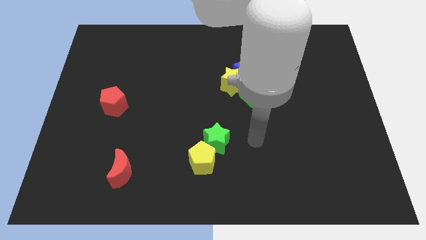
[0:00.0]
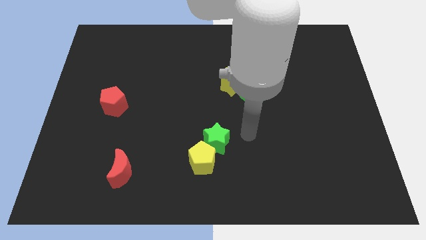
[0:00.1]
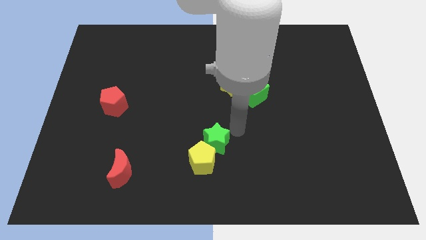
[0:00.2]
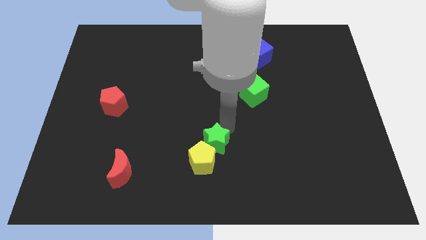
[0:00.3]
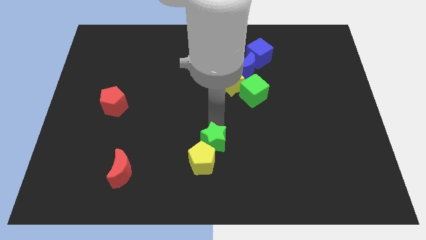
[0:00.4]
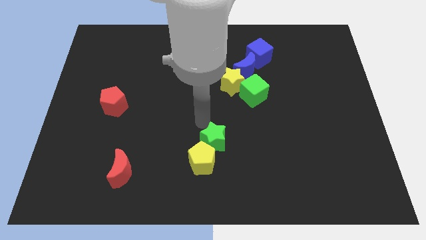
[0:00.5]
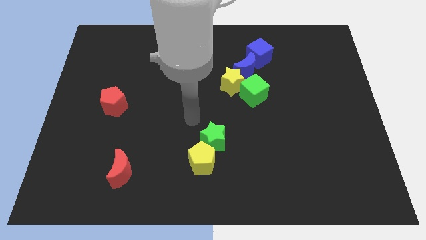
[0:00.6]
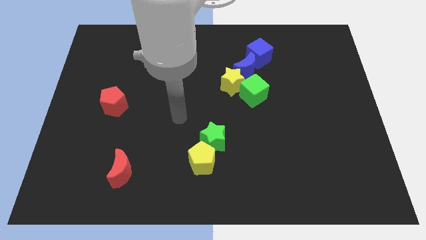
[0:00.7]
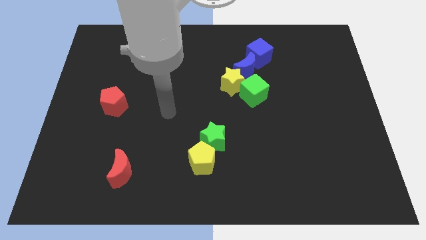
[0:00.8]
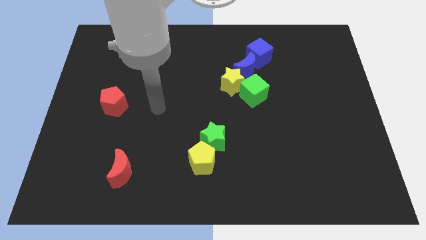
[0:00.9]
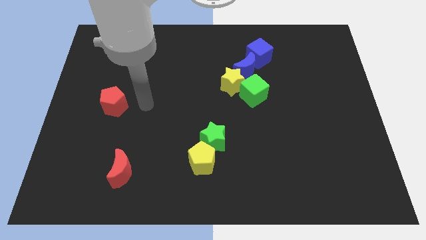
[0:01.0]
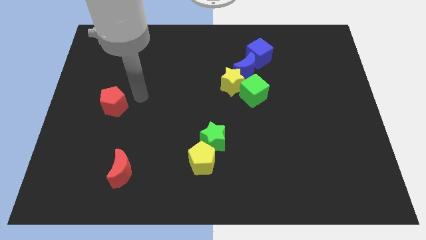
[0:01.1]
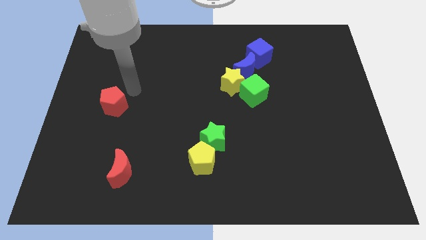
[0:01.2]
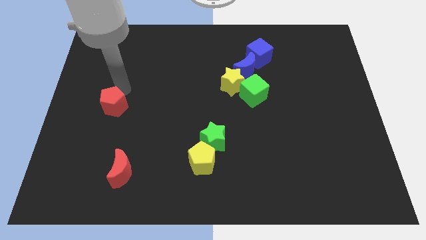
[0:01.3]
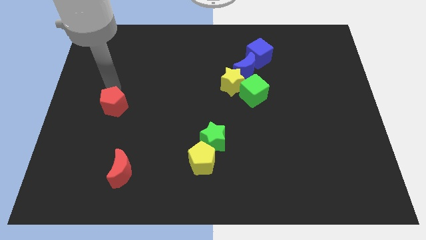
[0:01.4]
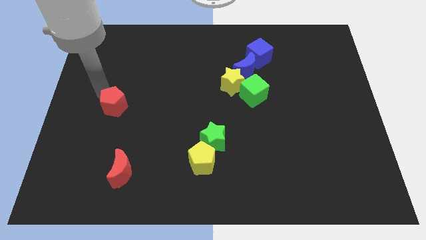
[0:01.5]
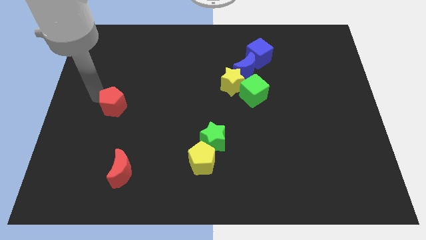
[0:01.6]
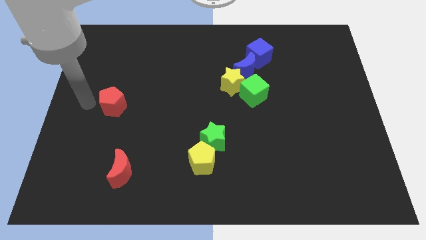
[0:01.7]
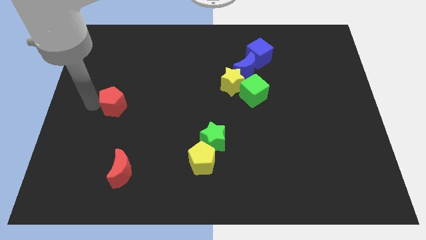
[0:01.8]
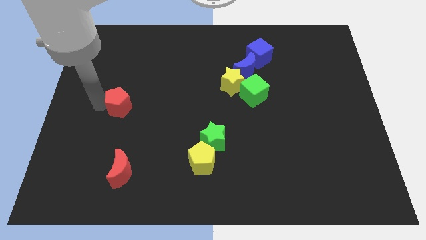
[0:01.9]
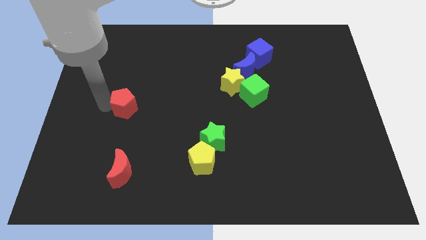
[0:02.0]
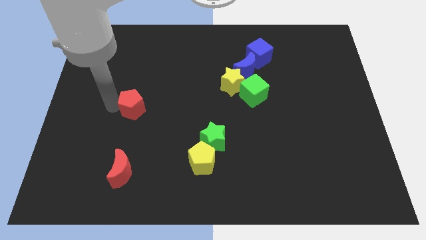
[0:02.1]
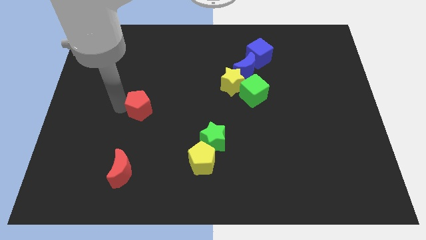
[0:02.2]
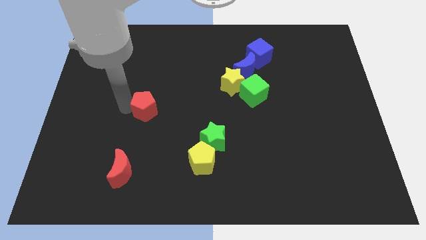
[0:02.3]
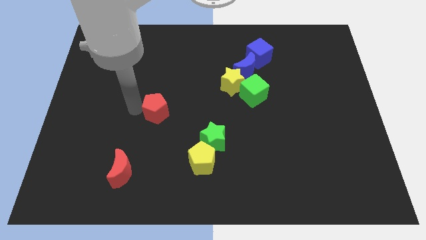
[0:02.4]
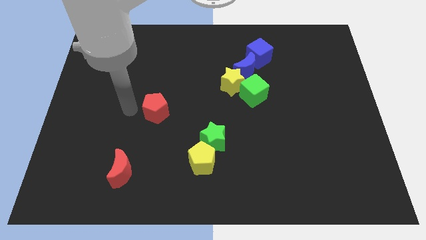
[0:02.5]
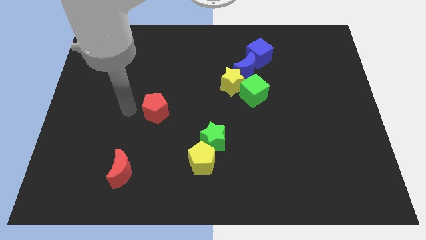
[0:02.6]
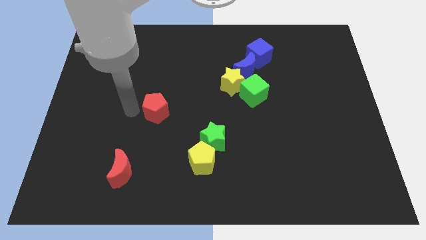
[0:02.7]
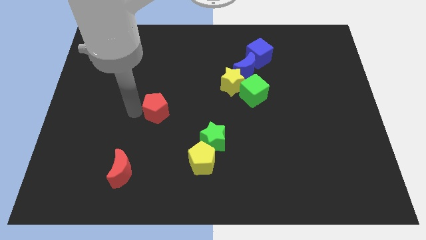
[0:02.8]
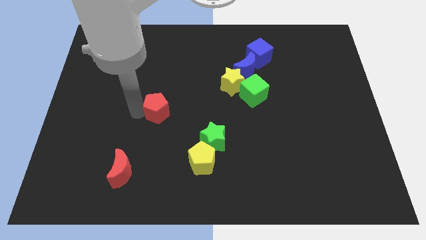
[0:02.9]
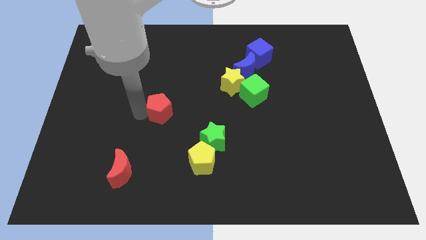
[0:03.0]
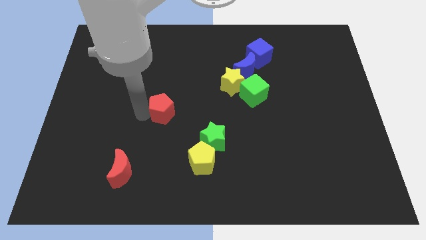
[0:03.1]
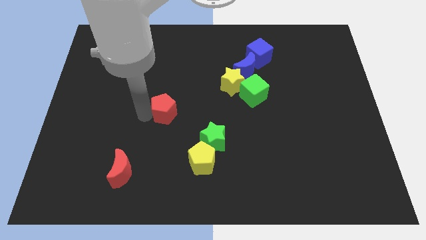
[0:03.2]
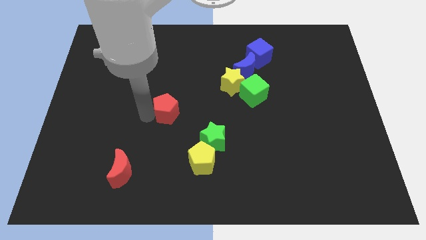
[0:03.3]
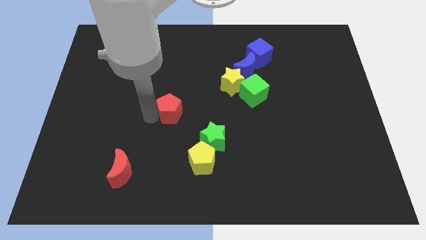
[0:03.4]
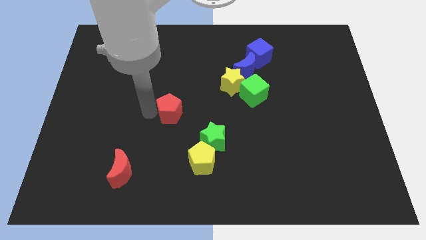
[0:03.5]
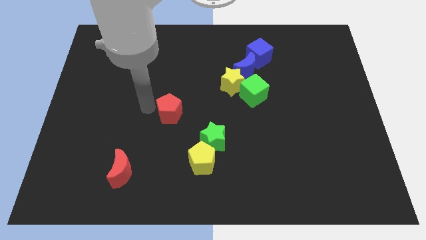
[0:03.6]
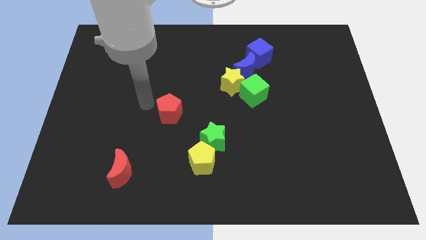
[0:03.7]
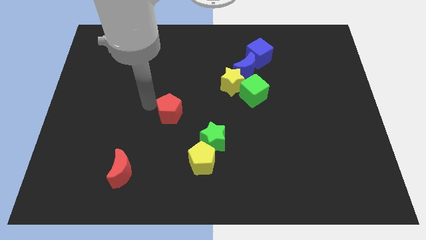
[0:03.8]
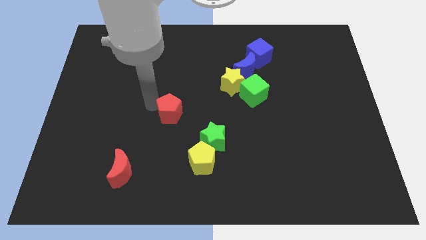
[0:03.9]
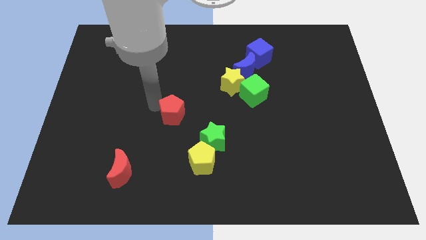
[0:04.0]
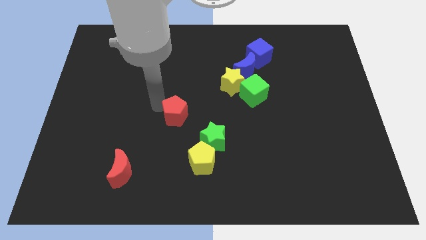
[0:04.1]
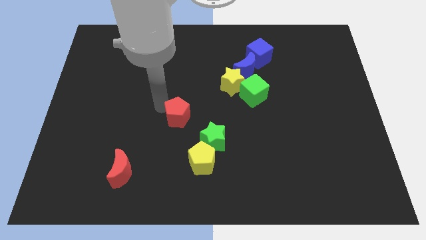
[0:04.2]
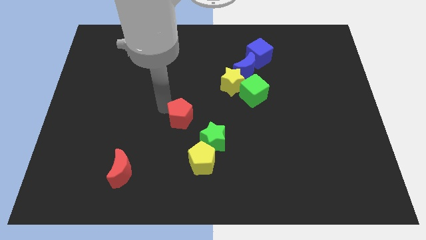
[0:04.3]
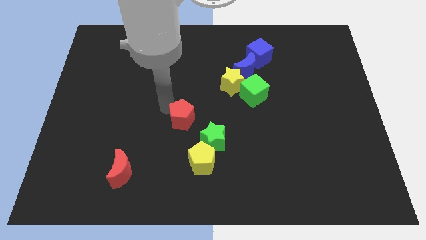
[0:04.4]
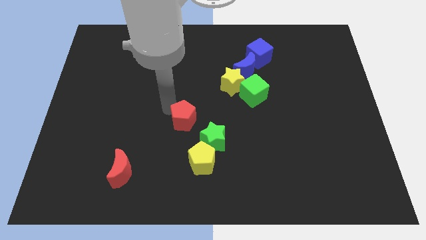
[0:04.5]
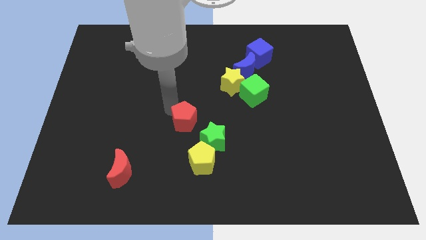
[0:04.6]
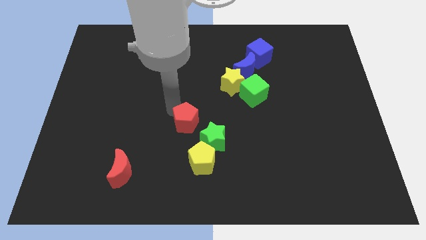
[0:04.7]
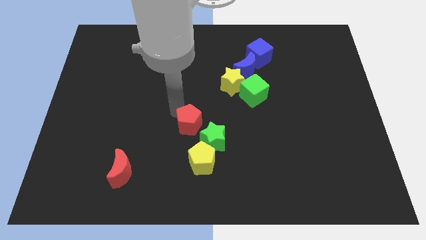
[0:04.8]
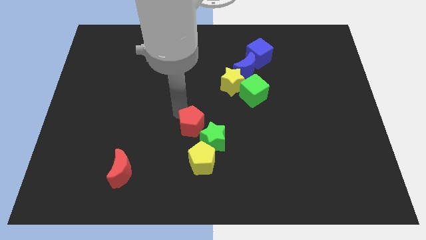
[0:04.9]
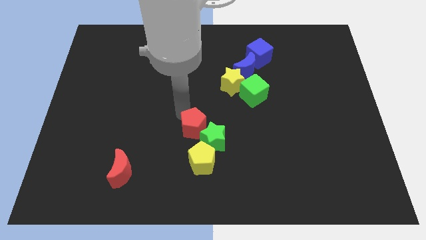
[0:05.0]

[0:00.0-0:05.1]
put the red pentagon to the green star

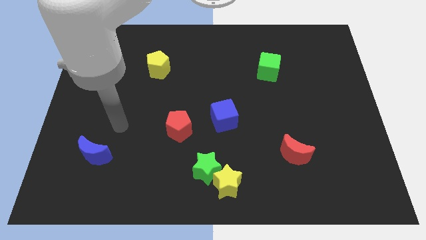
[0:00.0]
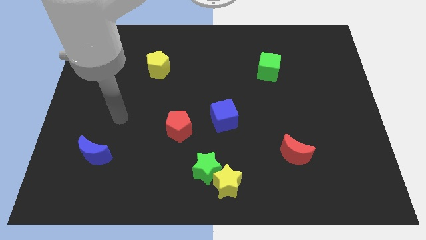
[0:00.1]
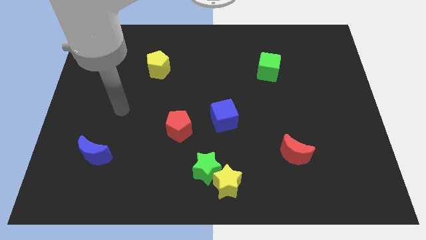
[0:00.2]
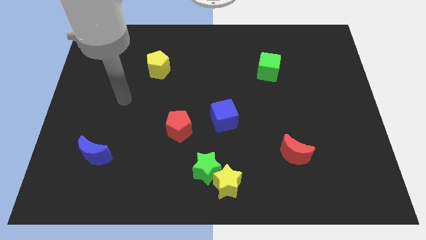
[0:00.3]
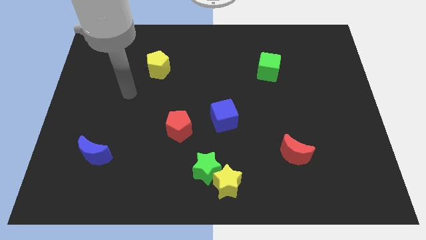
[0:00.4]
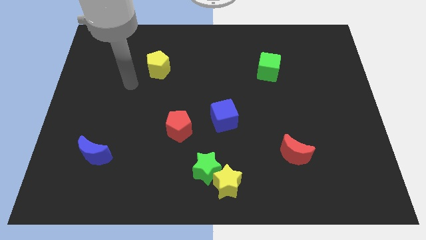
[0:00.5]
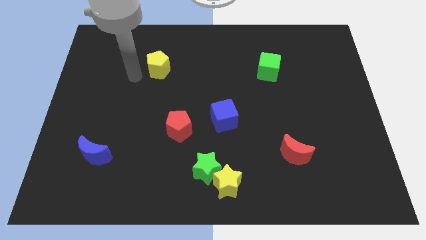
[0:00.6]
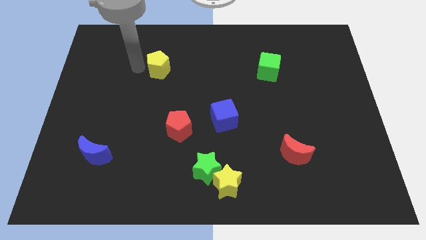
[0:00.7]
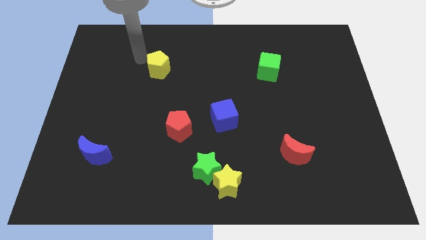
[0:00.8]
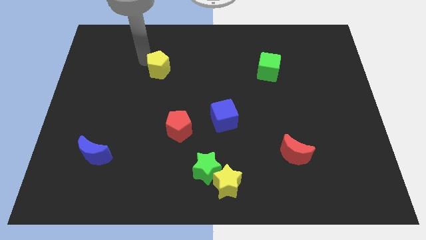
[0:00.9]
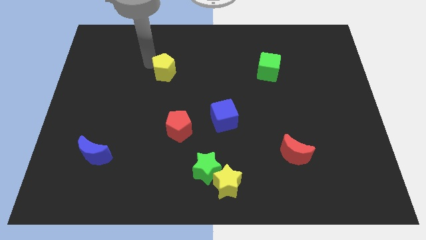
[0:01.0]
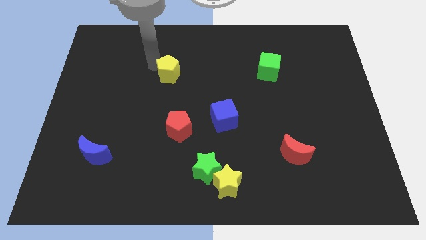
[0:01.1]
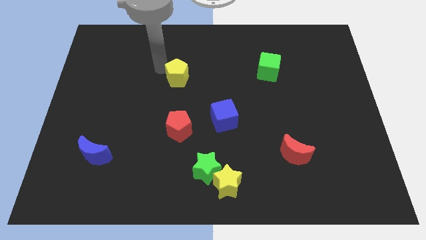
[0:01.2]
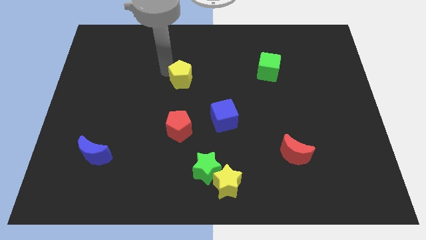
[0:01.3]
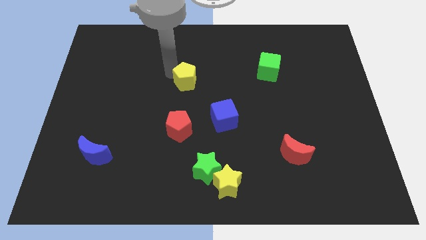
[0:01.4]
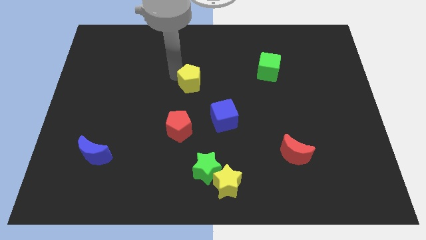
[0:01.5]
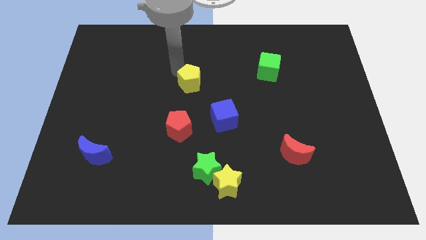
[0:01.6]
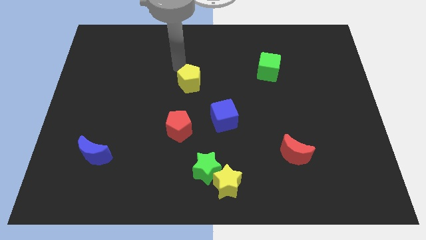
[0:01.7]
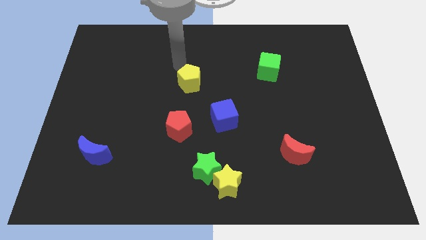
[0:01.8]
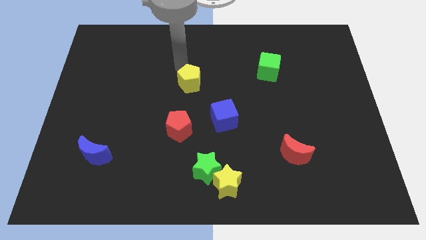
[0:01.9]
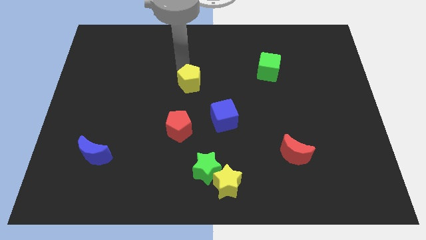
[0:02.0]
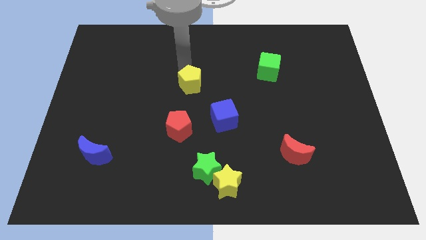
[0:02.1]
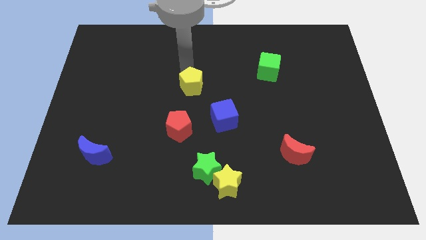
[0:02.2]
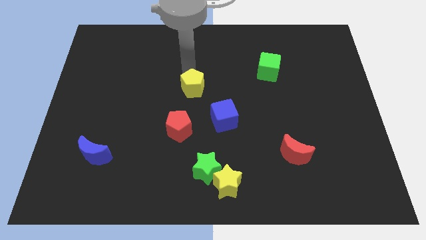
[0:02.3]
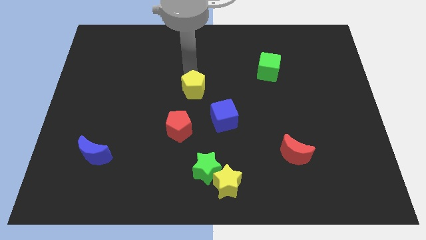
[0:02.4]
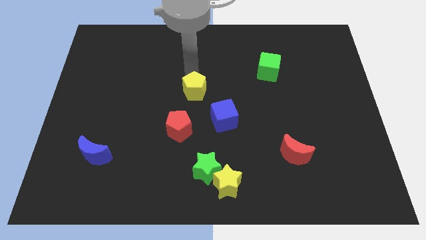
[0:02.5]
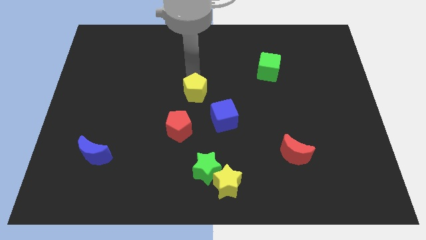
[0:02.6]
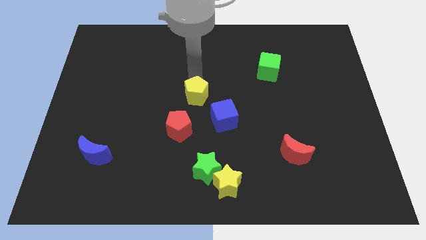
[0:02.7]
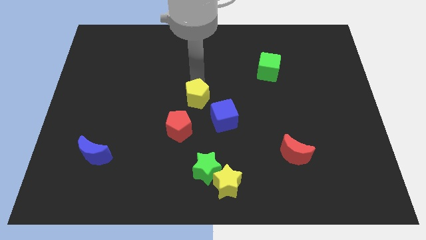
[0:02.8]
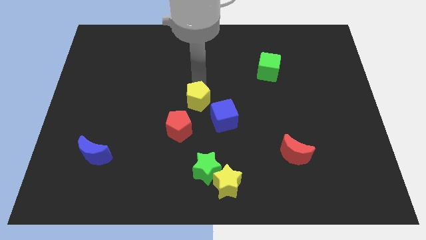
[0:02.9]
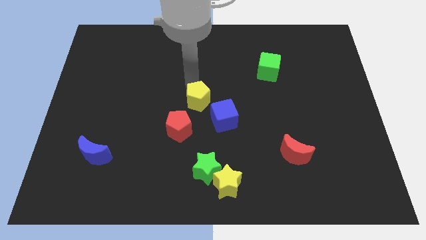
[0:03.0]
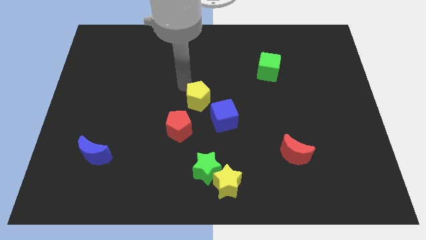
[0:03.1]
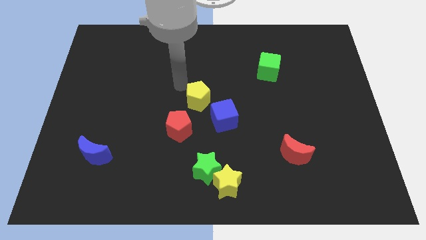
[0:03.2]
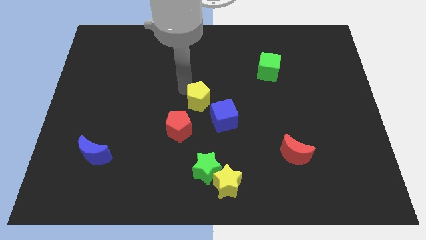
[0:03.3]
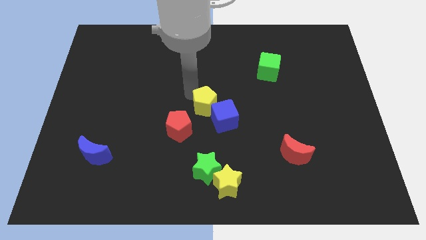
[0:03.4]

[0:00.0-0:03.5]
slide the yellow pentagon to the blue cube
